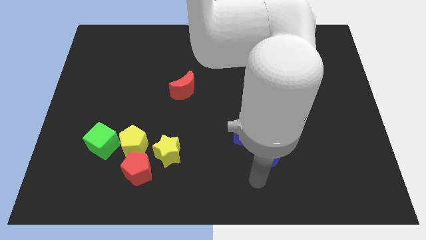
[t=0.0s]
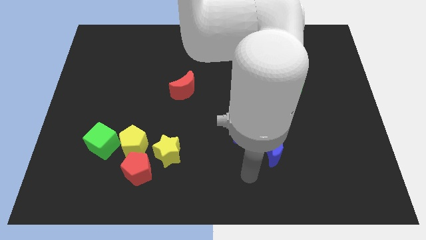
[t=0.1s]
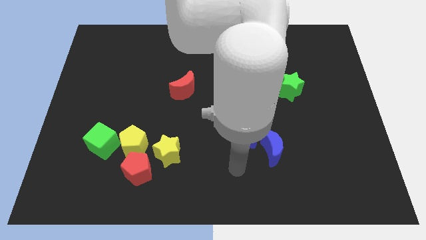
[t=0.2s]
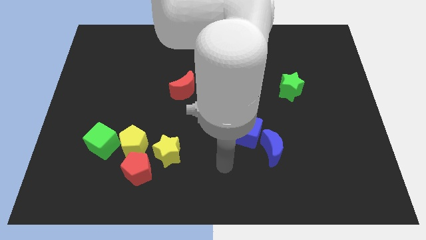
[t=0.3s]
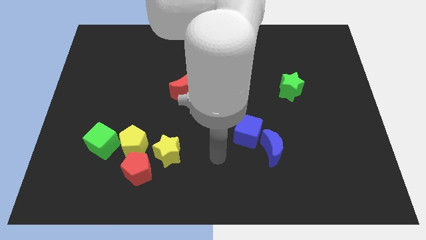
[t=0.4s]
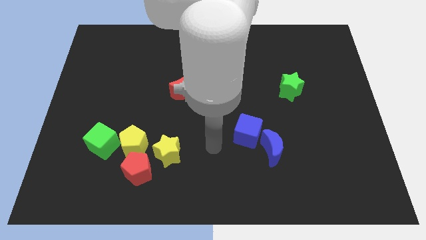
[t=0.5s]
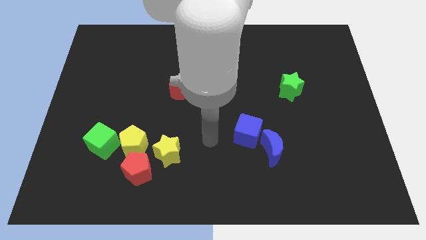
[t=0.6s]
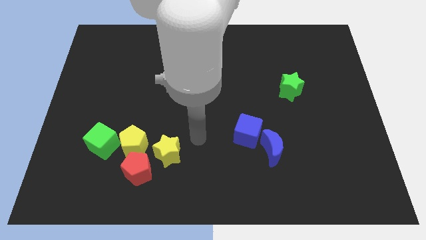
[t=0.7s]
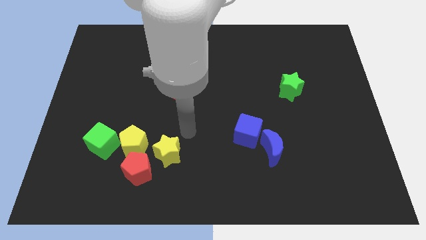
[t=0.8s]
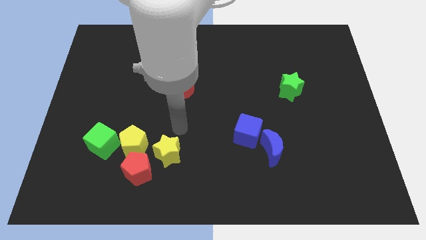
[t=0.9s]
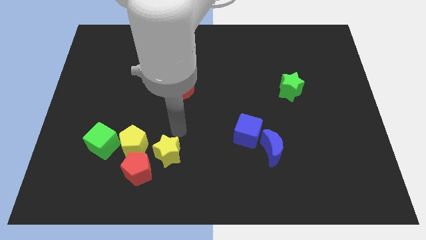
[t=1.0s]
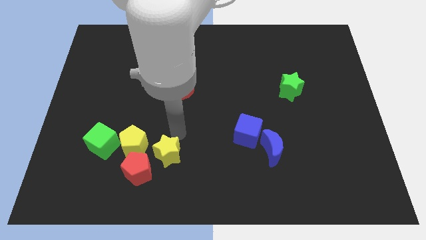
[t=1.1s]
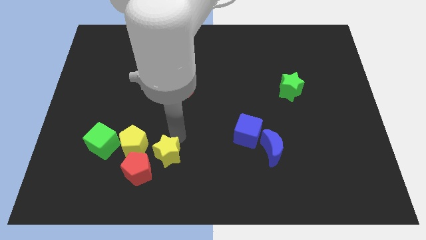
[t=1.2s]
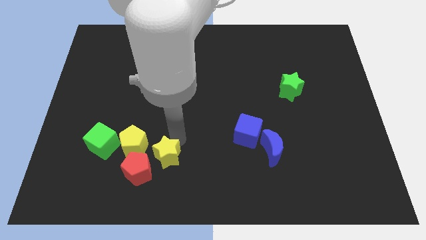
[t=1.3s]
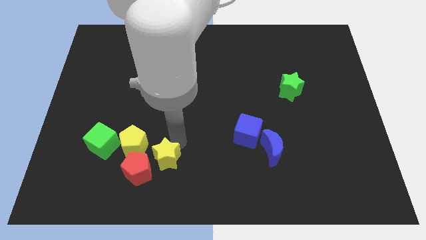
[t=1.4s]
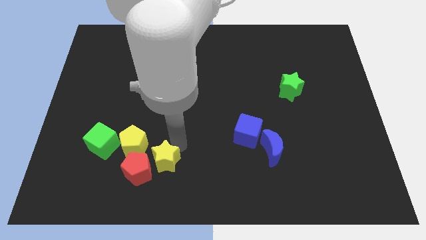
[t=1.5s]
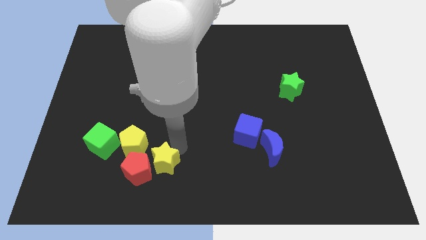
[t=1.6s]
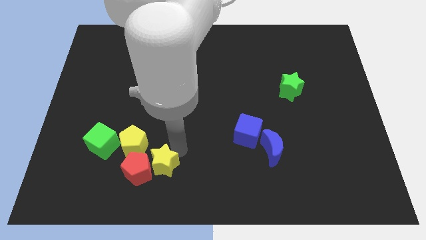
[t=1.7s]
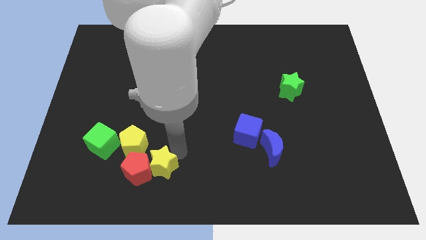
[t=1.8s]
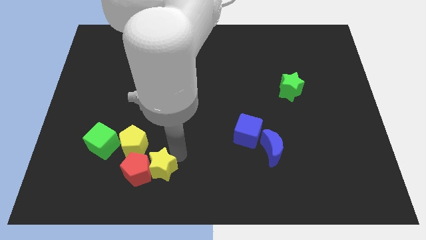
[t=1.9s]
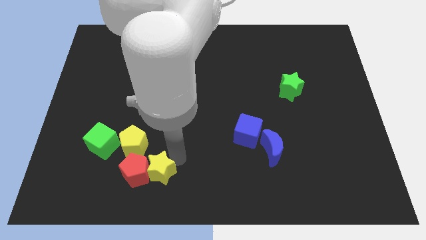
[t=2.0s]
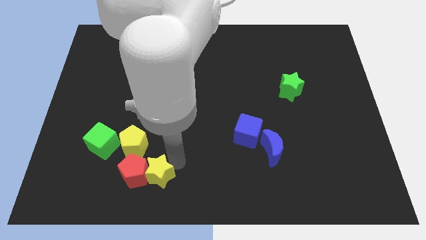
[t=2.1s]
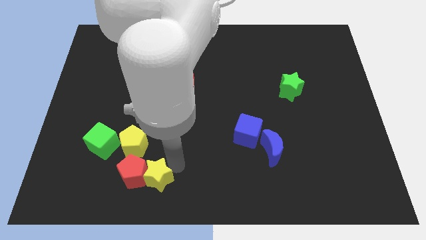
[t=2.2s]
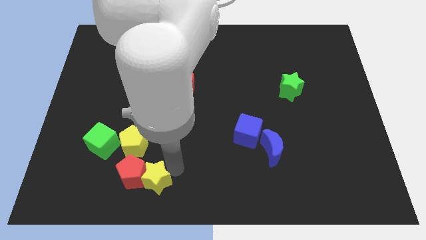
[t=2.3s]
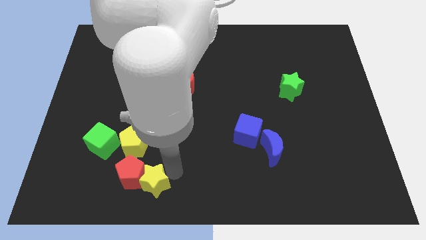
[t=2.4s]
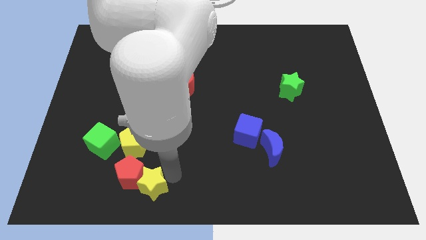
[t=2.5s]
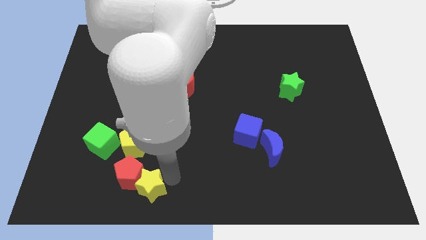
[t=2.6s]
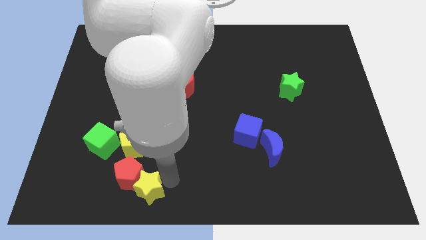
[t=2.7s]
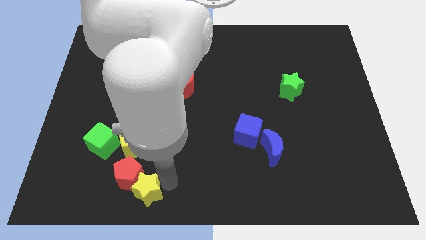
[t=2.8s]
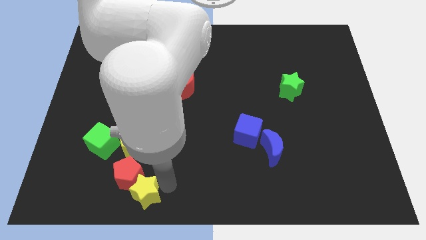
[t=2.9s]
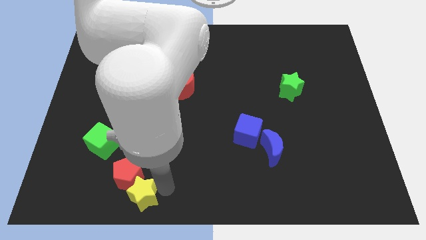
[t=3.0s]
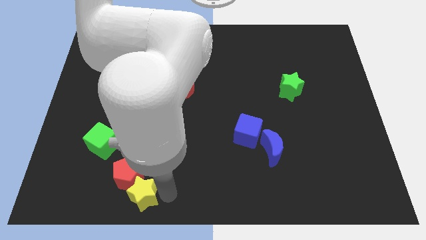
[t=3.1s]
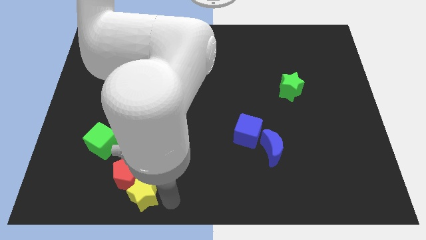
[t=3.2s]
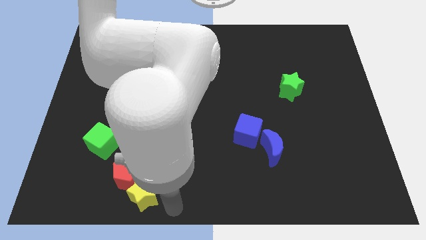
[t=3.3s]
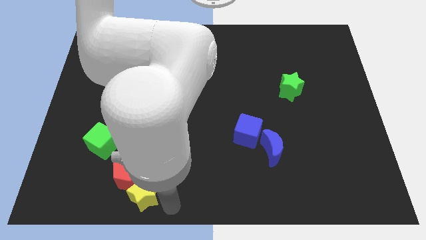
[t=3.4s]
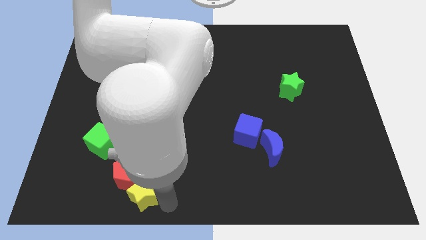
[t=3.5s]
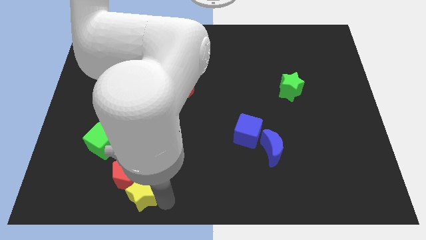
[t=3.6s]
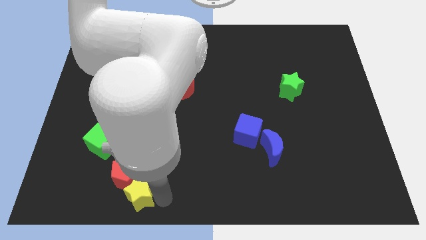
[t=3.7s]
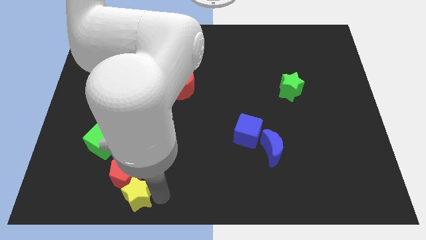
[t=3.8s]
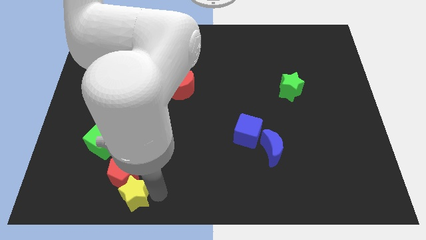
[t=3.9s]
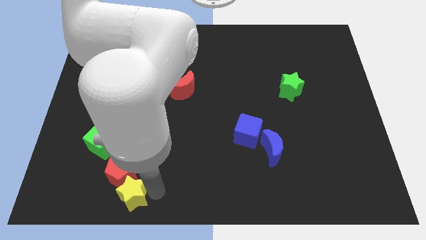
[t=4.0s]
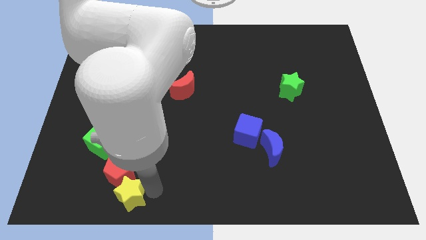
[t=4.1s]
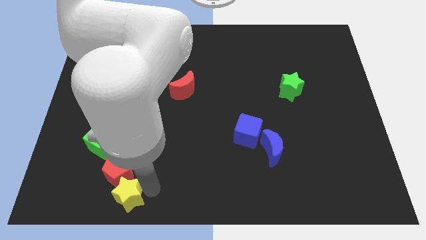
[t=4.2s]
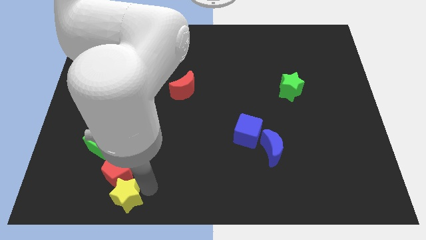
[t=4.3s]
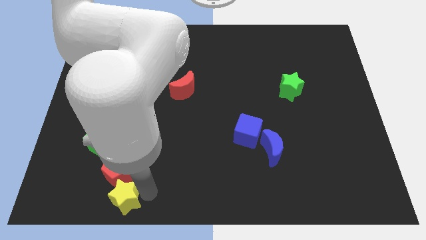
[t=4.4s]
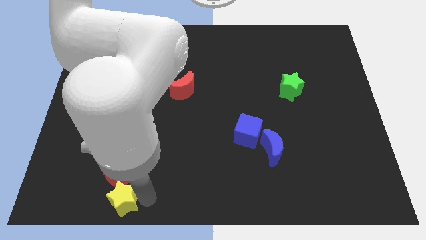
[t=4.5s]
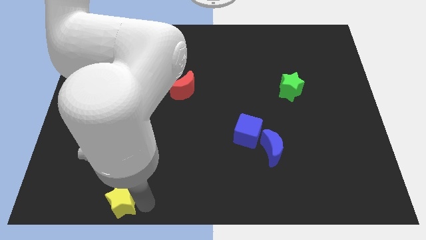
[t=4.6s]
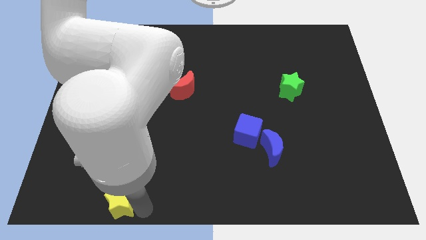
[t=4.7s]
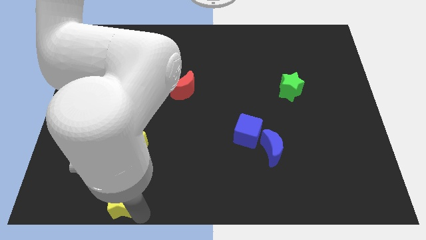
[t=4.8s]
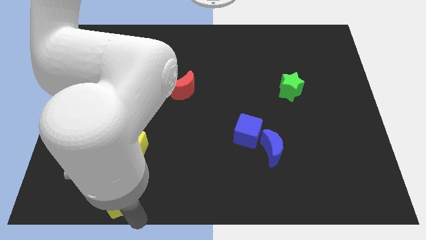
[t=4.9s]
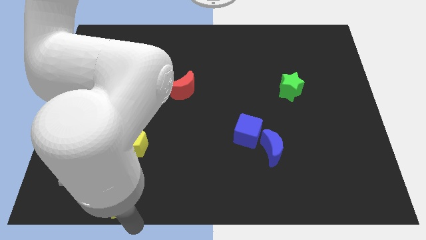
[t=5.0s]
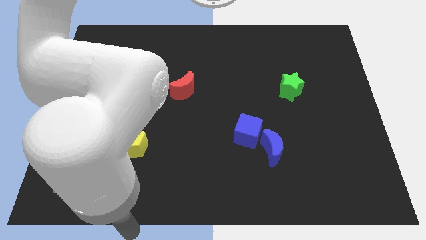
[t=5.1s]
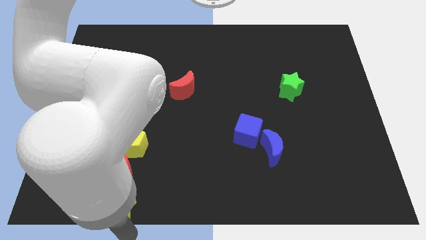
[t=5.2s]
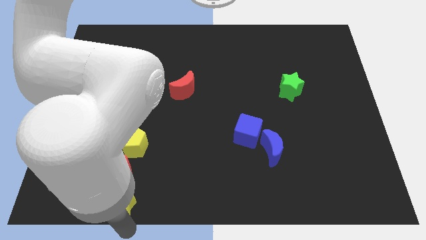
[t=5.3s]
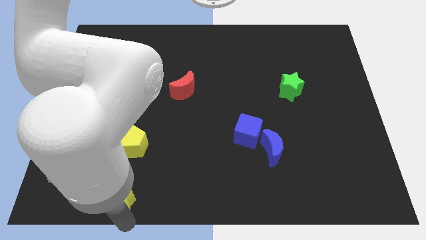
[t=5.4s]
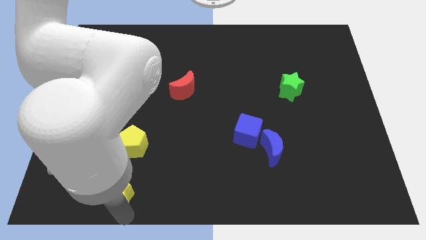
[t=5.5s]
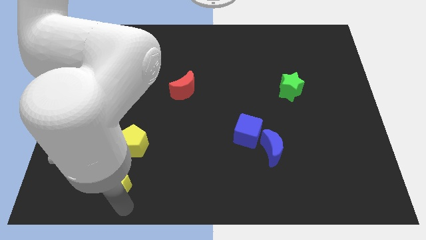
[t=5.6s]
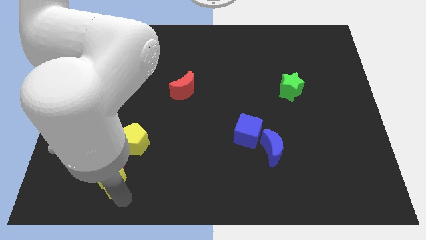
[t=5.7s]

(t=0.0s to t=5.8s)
put the yellow star to the bottom left side of the yellow pentagon
